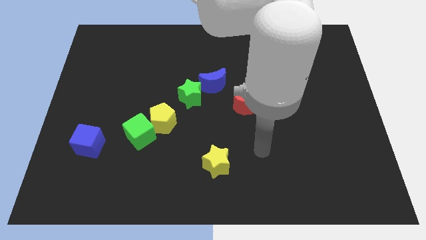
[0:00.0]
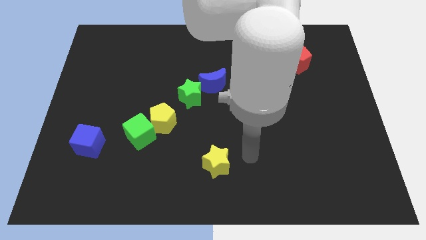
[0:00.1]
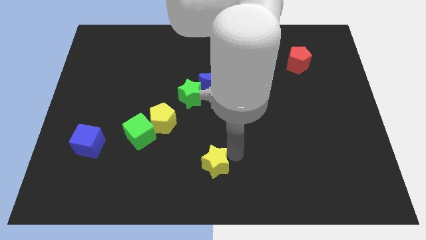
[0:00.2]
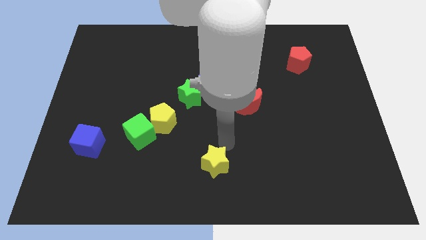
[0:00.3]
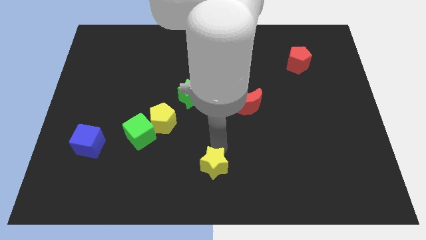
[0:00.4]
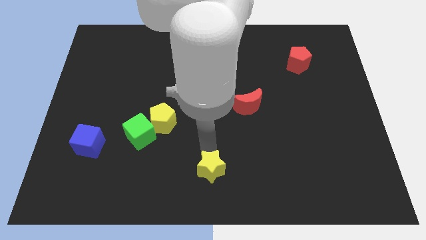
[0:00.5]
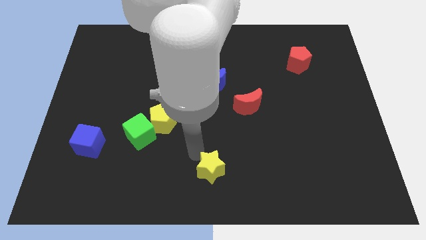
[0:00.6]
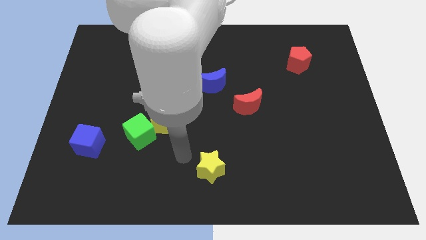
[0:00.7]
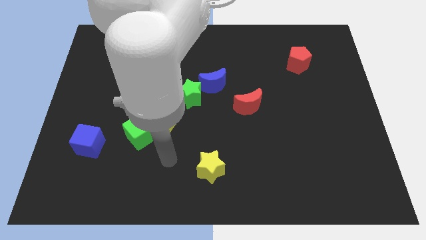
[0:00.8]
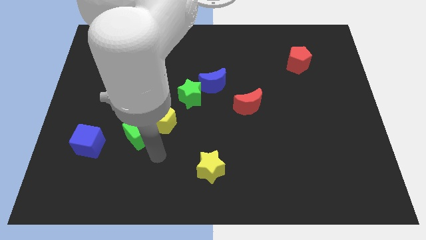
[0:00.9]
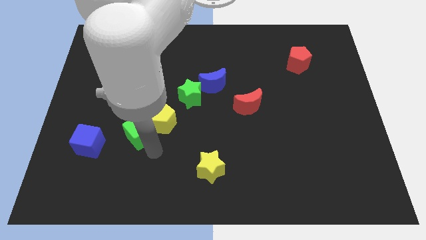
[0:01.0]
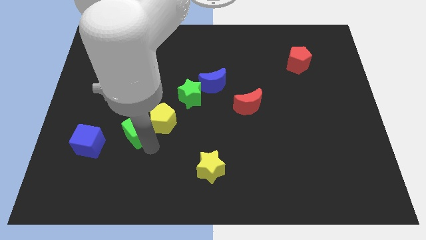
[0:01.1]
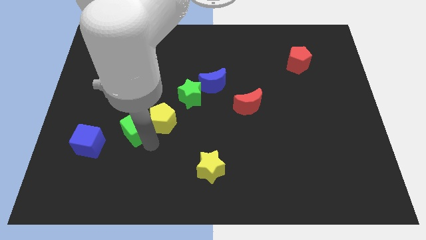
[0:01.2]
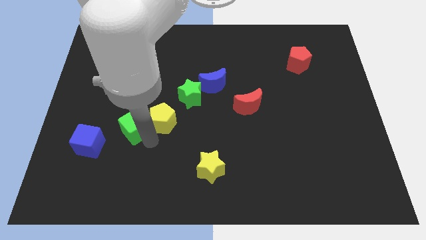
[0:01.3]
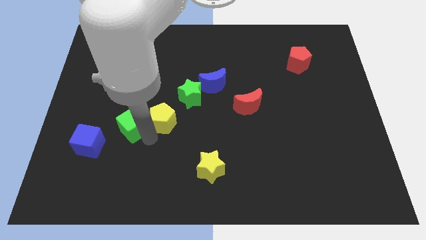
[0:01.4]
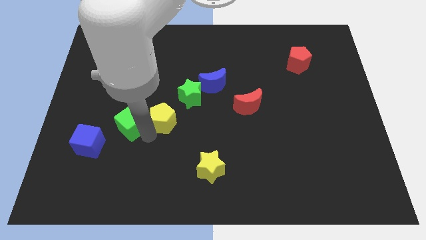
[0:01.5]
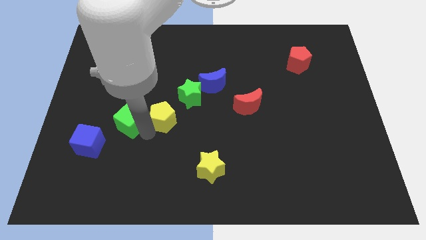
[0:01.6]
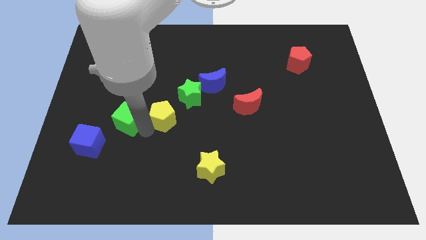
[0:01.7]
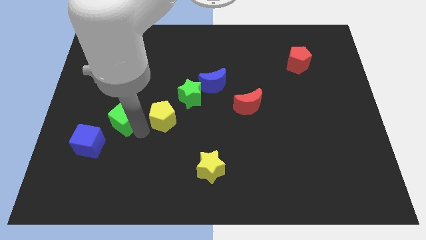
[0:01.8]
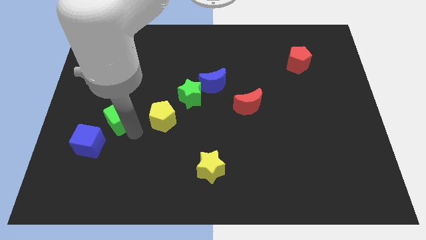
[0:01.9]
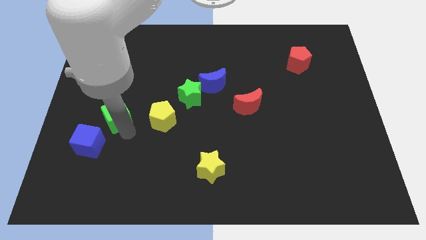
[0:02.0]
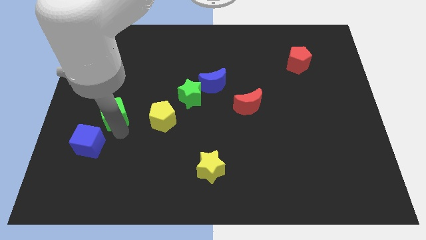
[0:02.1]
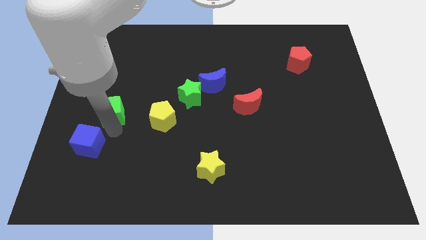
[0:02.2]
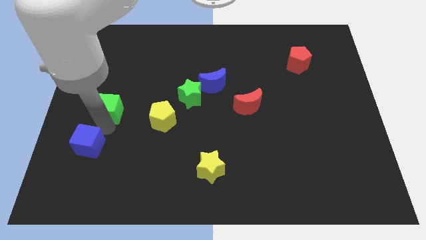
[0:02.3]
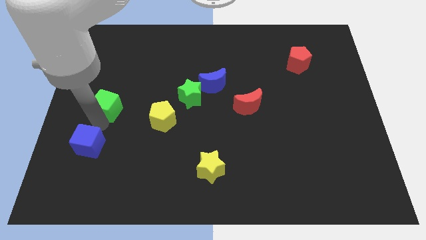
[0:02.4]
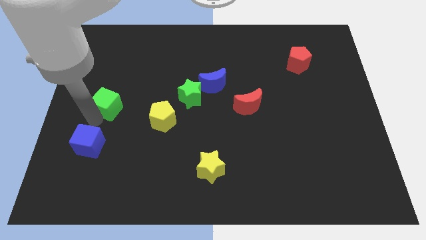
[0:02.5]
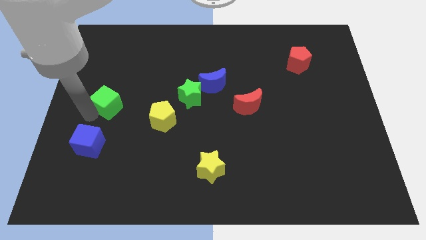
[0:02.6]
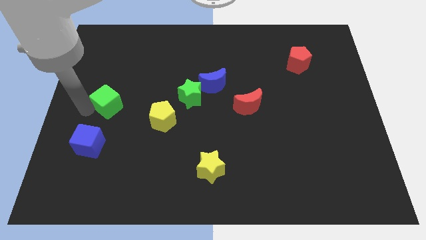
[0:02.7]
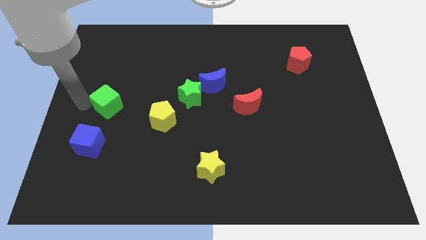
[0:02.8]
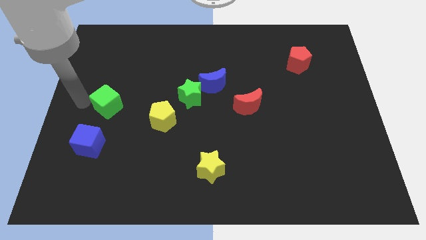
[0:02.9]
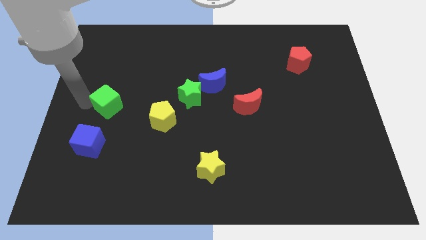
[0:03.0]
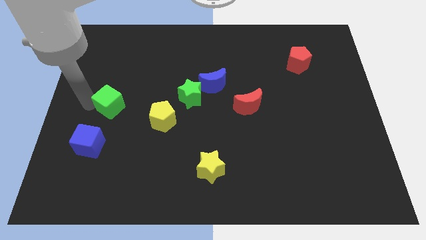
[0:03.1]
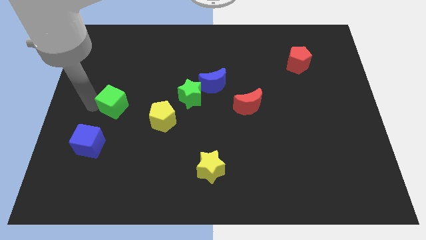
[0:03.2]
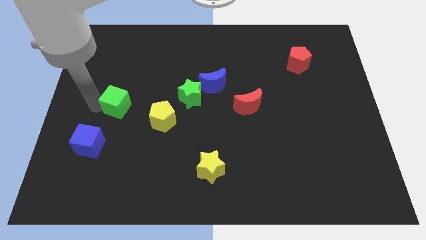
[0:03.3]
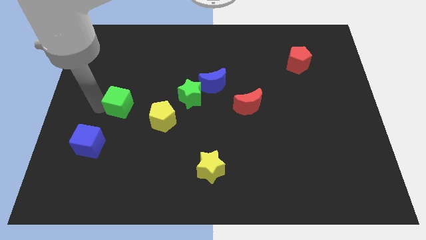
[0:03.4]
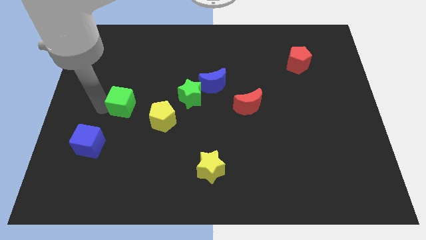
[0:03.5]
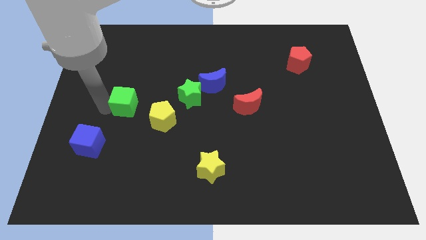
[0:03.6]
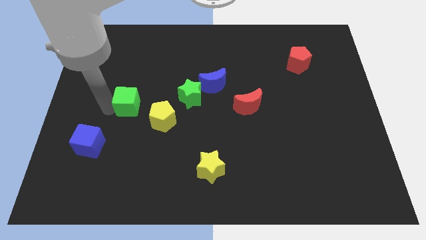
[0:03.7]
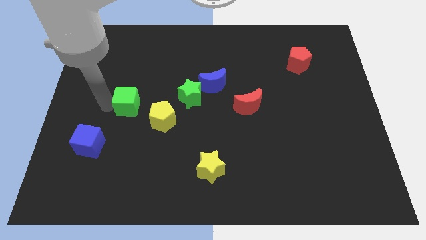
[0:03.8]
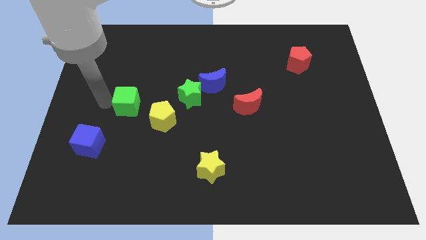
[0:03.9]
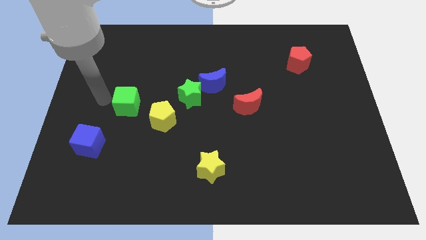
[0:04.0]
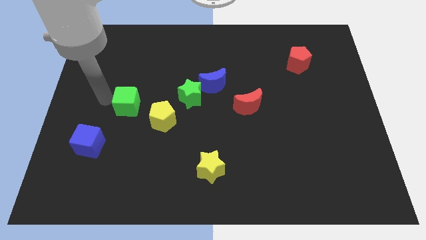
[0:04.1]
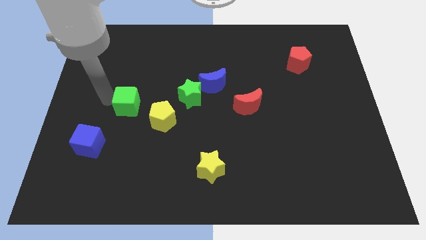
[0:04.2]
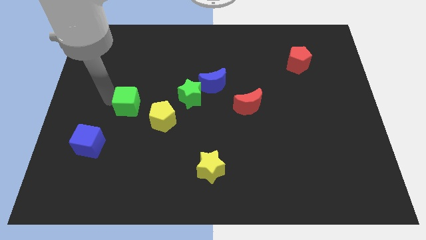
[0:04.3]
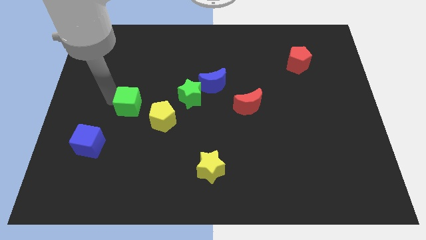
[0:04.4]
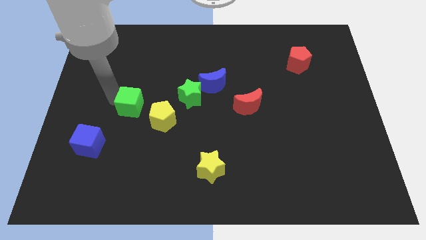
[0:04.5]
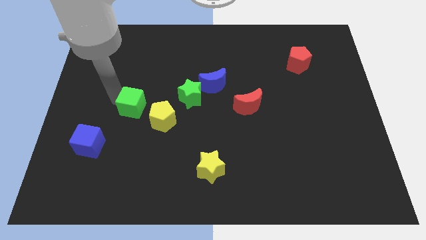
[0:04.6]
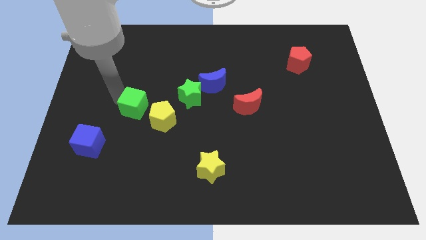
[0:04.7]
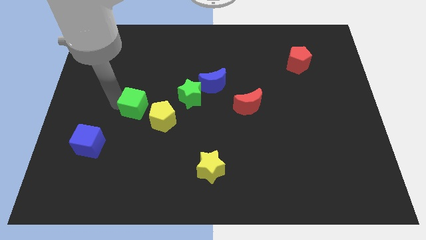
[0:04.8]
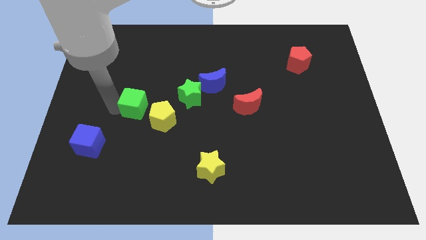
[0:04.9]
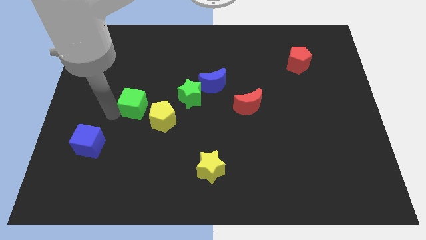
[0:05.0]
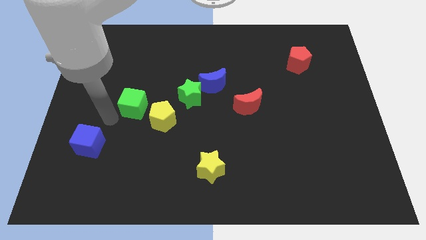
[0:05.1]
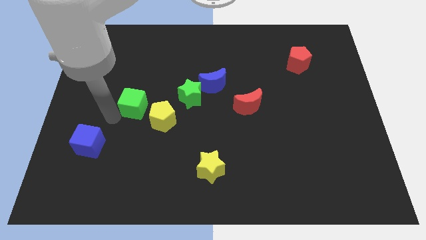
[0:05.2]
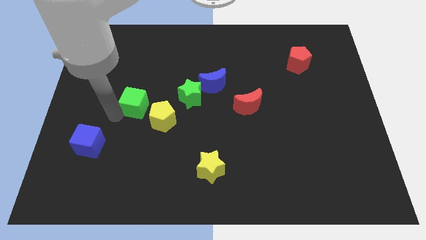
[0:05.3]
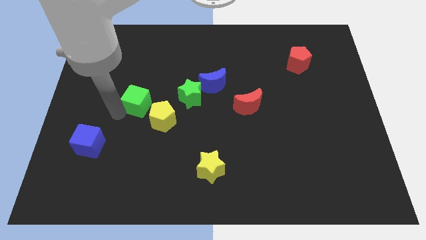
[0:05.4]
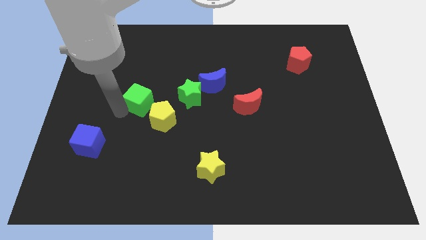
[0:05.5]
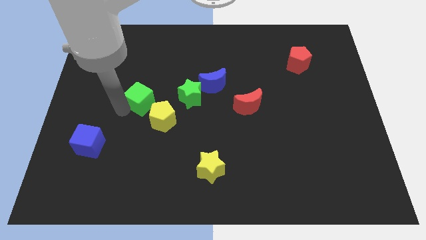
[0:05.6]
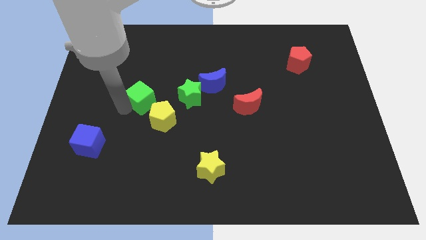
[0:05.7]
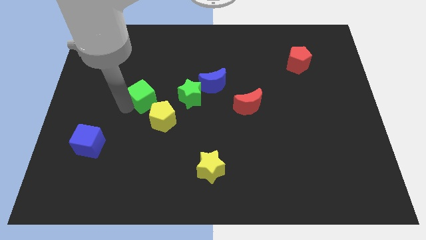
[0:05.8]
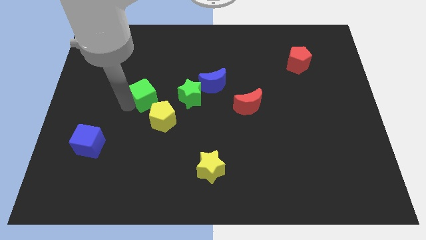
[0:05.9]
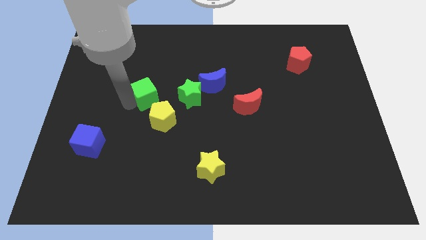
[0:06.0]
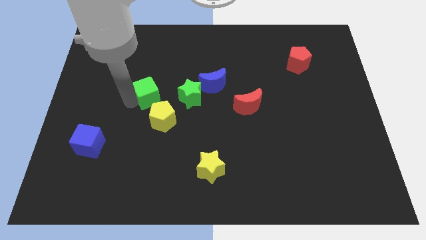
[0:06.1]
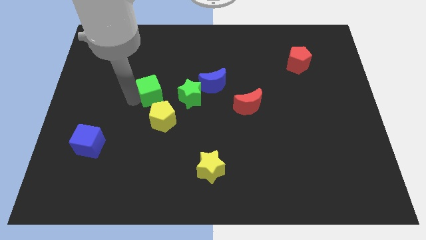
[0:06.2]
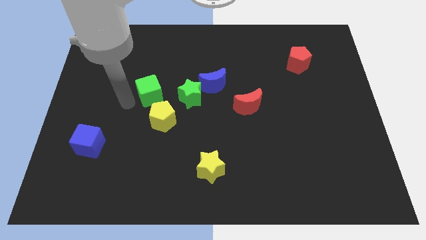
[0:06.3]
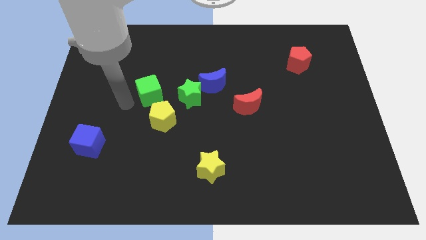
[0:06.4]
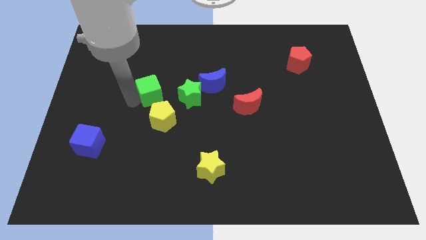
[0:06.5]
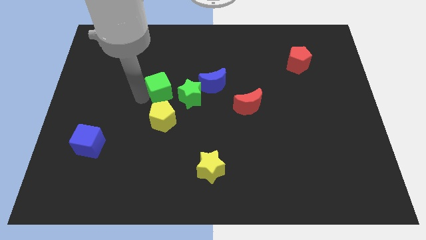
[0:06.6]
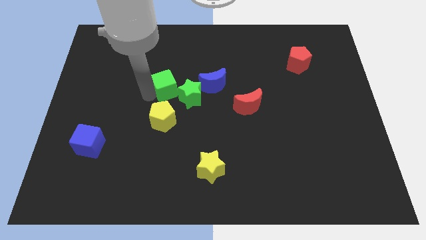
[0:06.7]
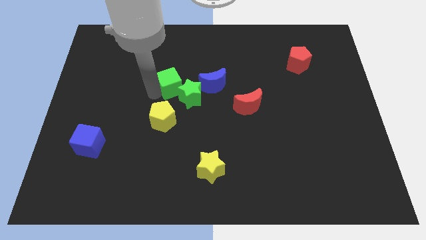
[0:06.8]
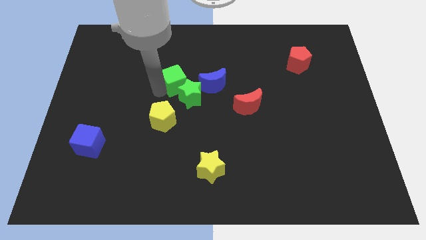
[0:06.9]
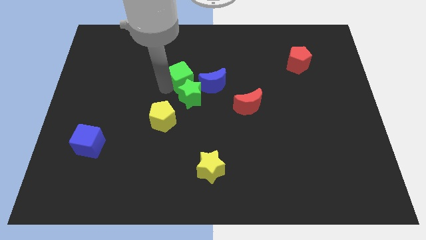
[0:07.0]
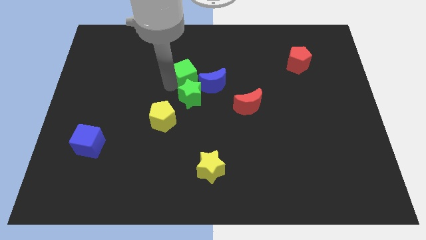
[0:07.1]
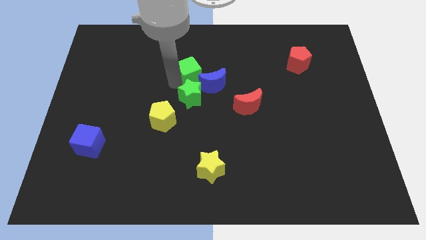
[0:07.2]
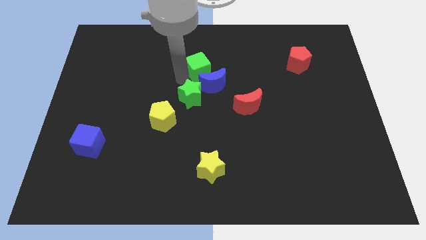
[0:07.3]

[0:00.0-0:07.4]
slide the green cube upwards and right

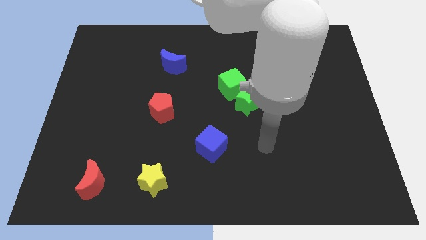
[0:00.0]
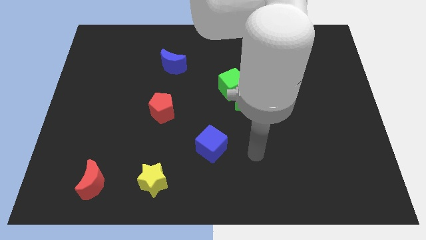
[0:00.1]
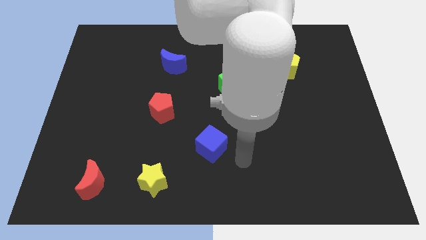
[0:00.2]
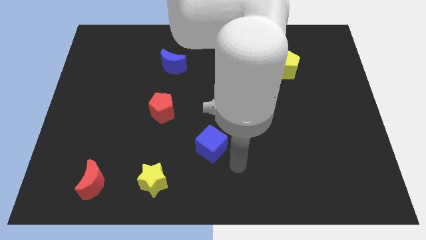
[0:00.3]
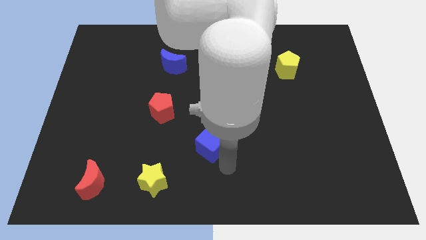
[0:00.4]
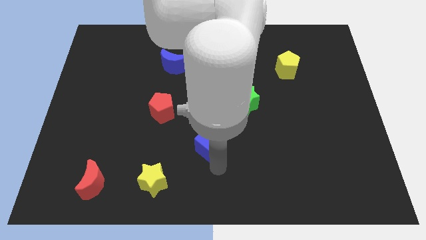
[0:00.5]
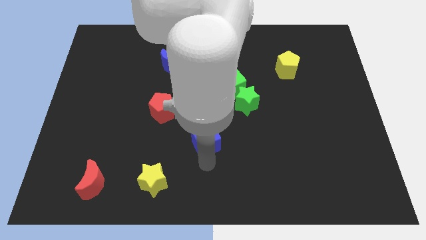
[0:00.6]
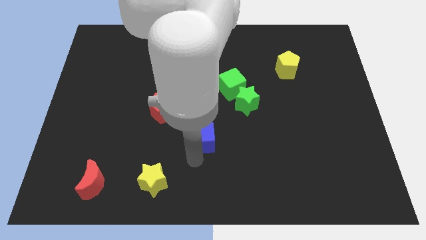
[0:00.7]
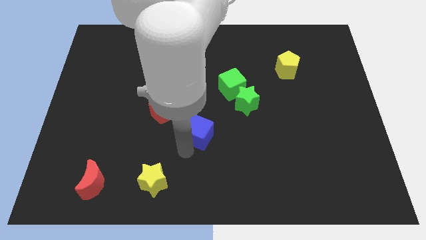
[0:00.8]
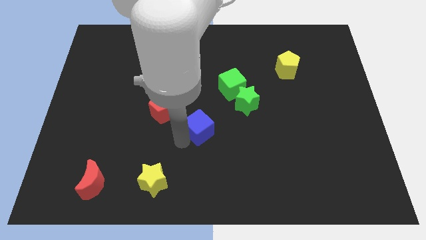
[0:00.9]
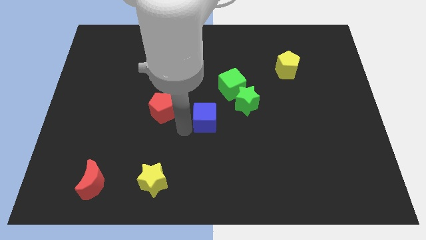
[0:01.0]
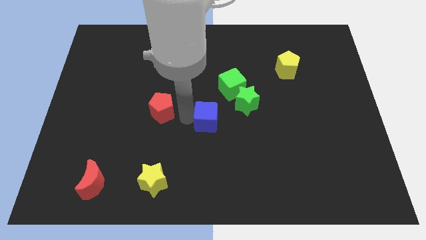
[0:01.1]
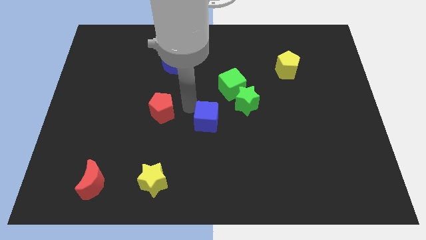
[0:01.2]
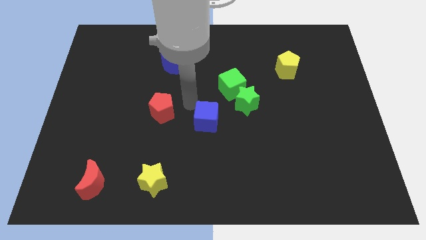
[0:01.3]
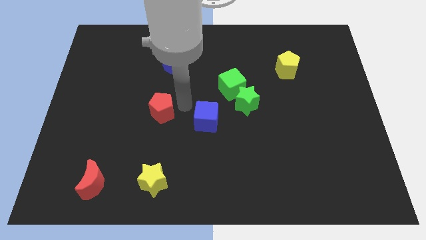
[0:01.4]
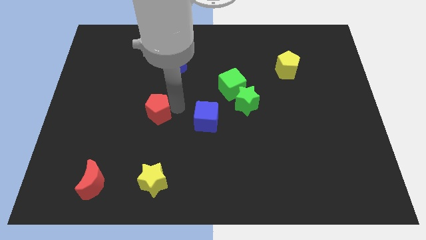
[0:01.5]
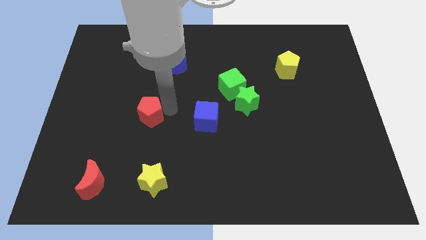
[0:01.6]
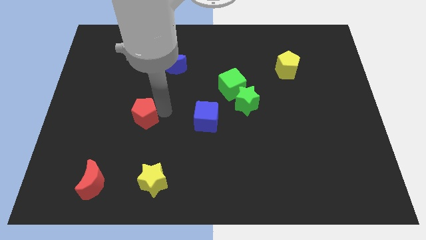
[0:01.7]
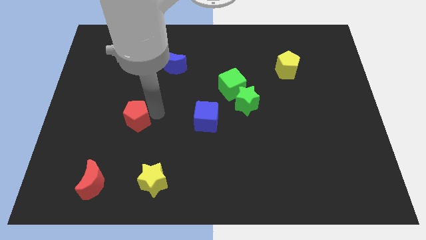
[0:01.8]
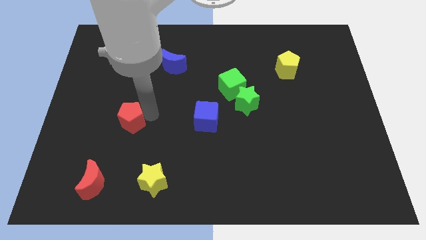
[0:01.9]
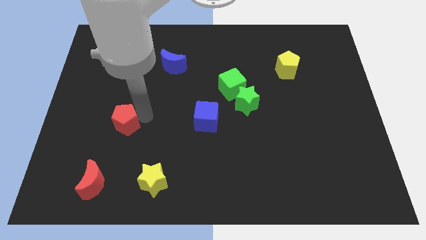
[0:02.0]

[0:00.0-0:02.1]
slightly move the red pentagon down and to the left
